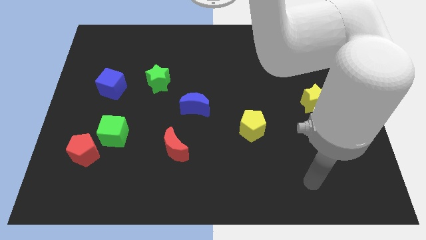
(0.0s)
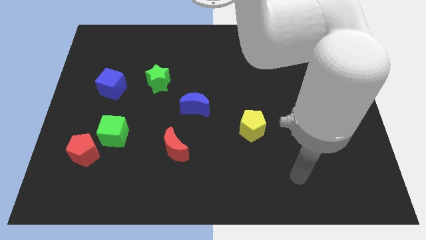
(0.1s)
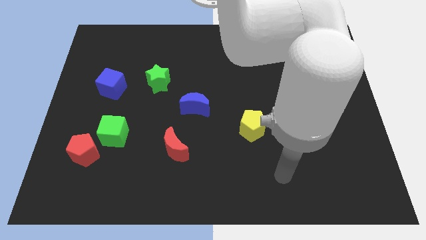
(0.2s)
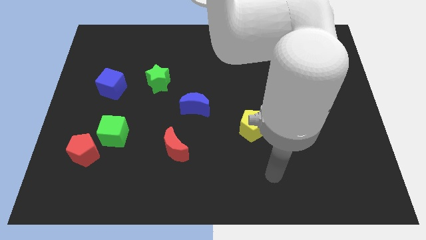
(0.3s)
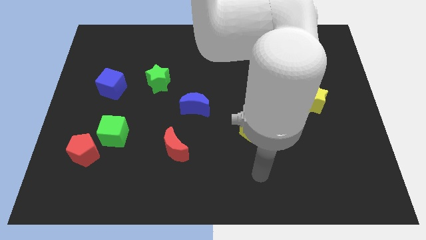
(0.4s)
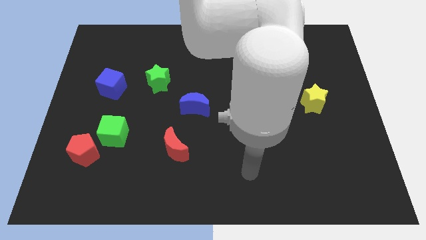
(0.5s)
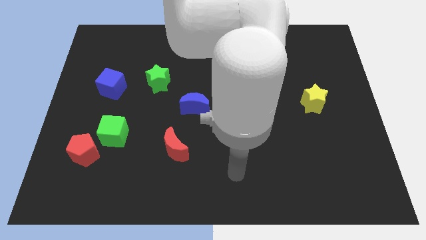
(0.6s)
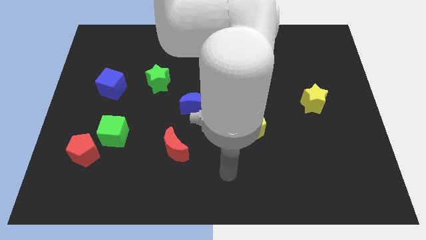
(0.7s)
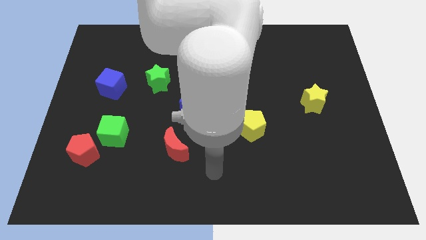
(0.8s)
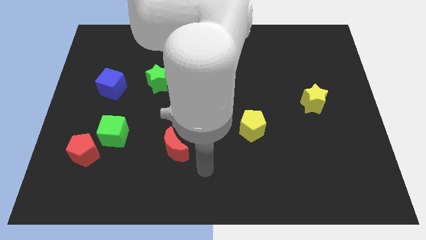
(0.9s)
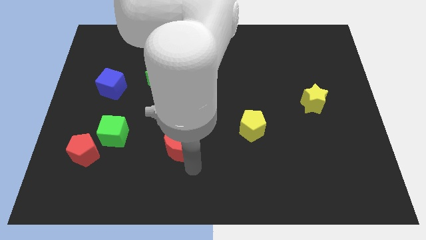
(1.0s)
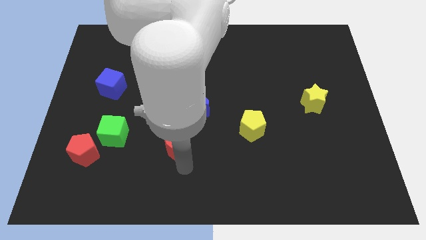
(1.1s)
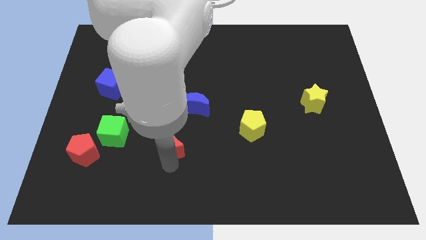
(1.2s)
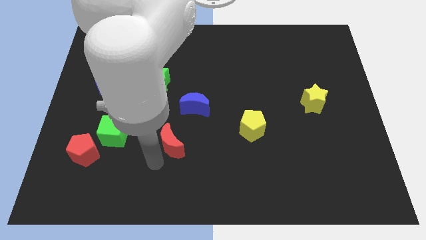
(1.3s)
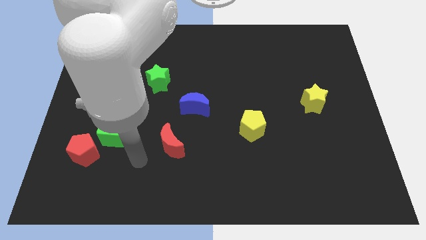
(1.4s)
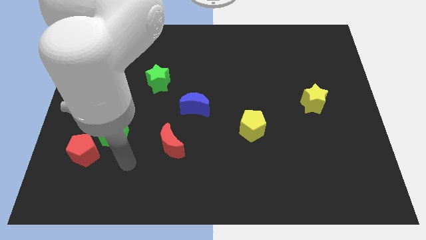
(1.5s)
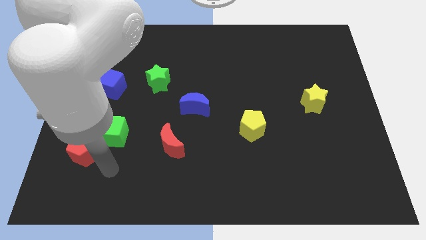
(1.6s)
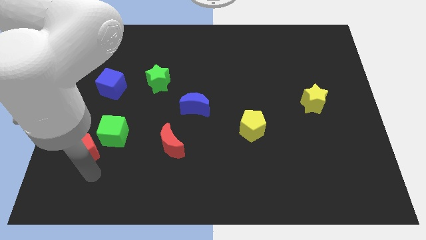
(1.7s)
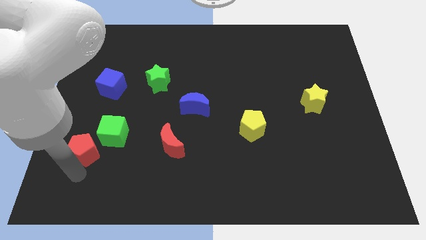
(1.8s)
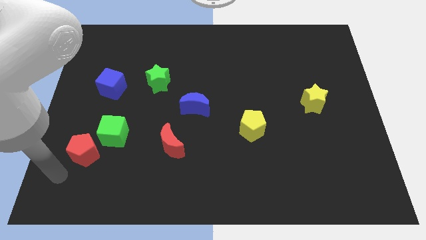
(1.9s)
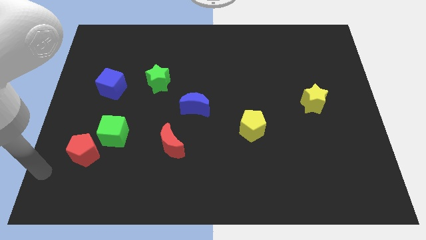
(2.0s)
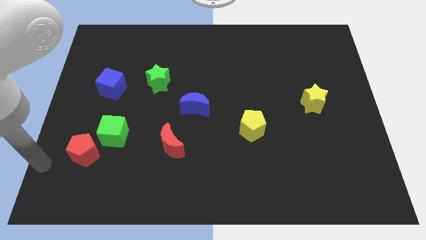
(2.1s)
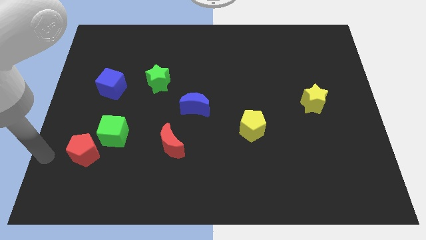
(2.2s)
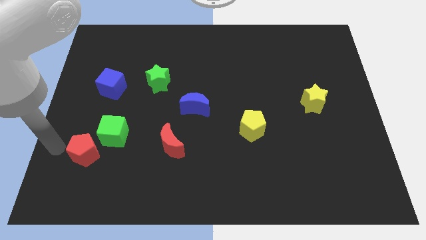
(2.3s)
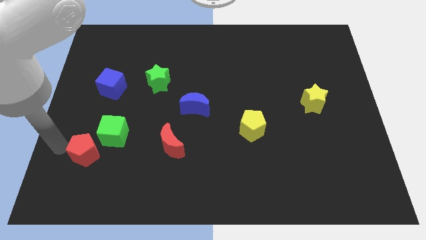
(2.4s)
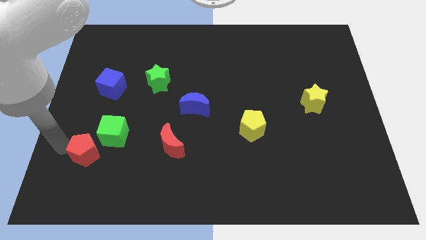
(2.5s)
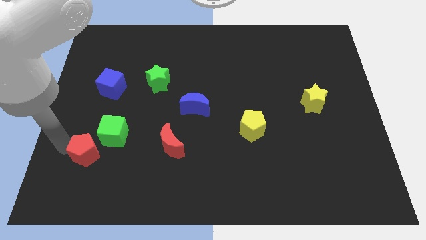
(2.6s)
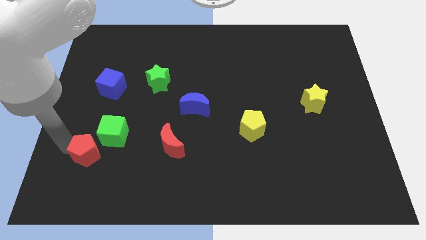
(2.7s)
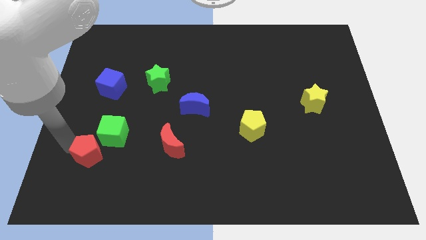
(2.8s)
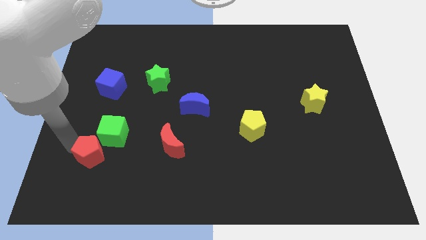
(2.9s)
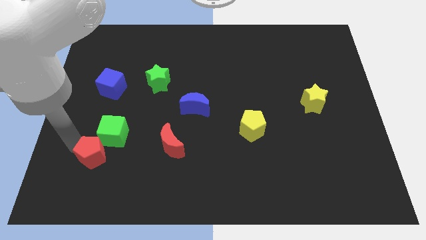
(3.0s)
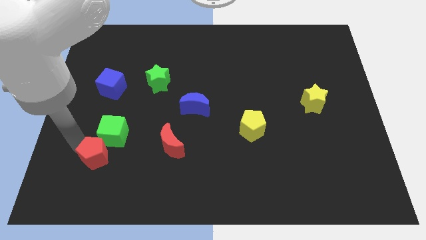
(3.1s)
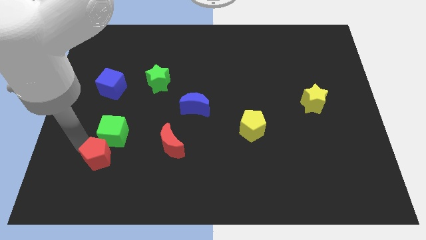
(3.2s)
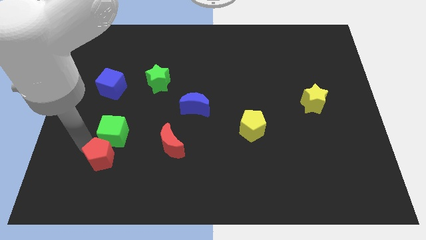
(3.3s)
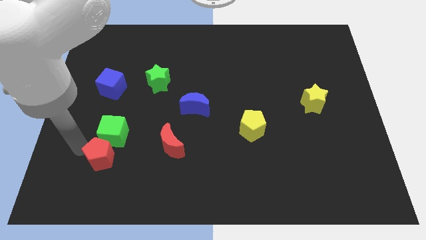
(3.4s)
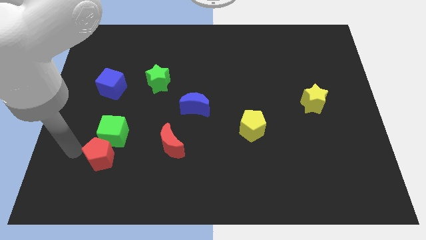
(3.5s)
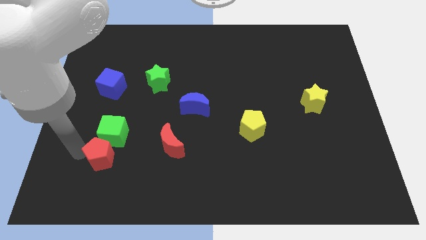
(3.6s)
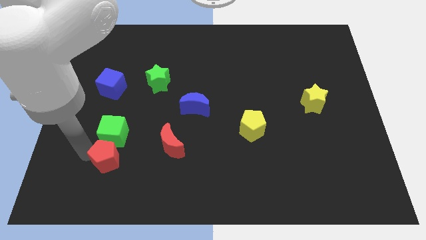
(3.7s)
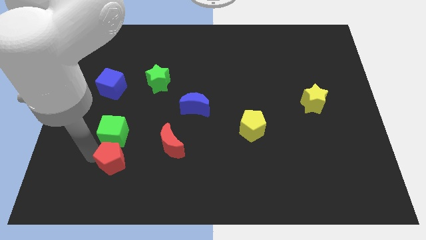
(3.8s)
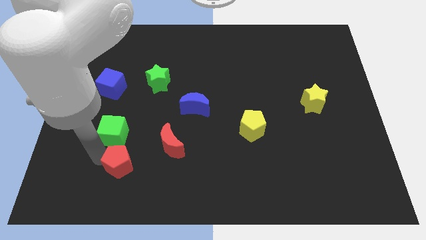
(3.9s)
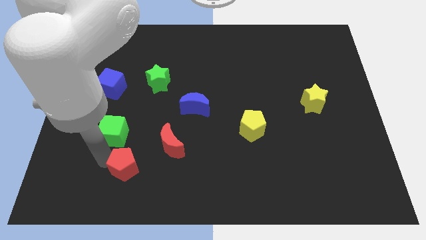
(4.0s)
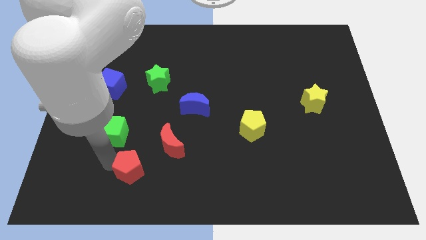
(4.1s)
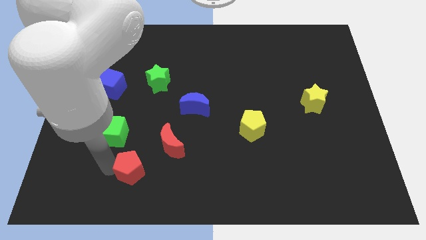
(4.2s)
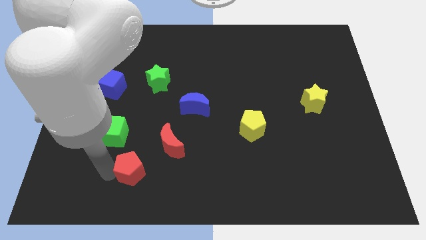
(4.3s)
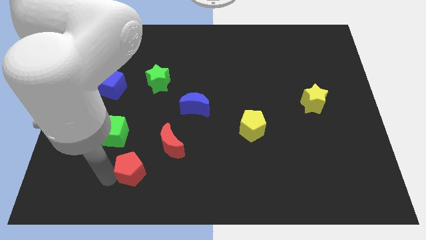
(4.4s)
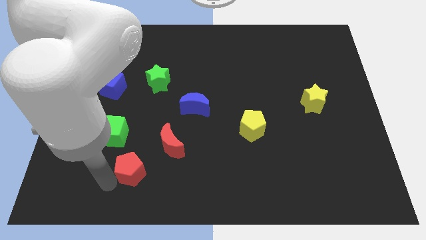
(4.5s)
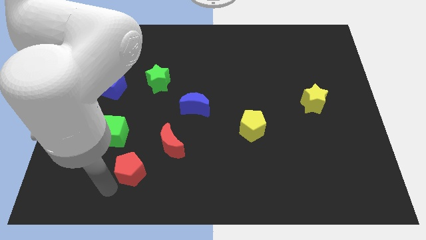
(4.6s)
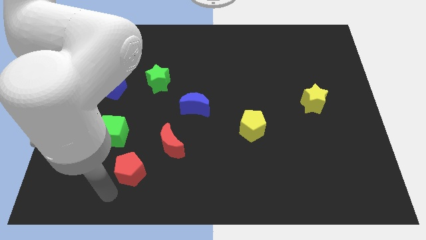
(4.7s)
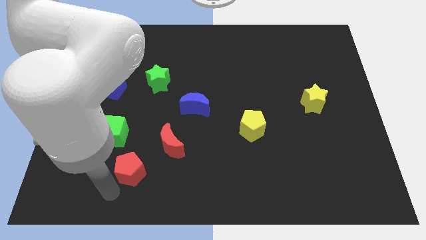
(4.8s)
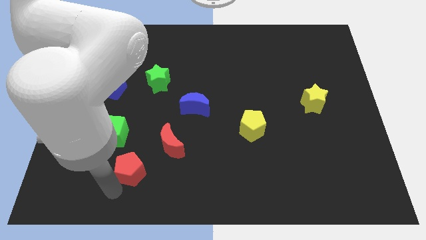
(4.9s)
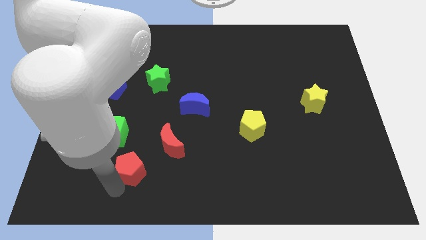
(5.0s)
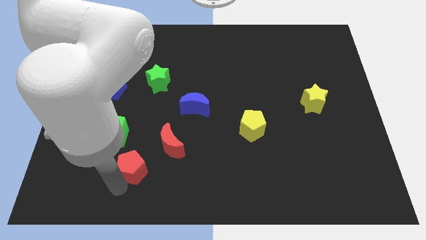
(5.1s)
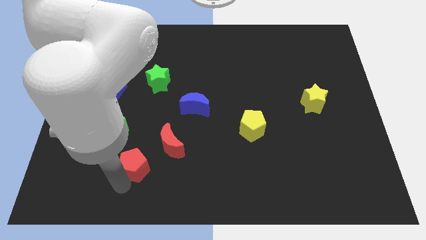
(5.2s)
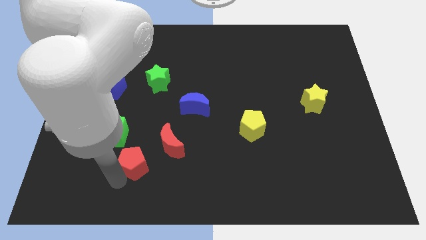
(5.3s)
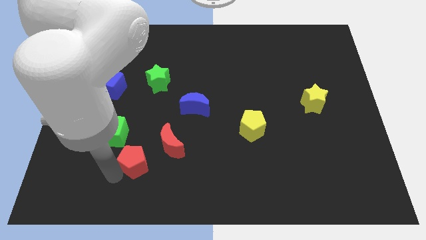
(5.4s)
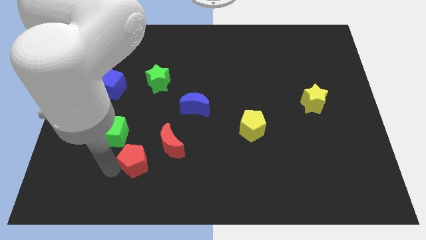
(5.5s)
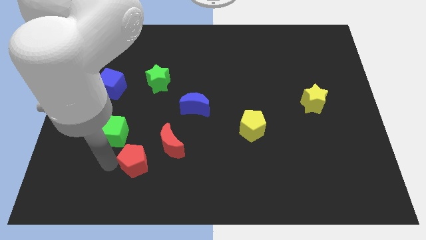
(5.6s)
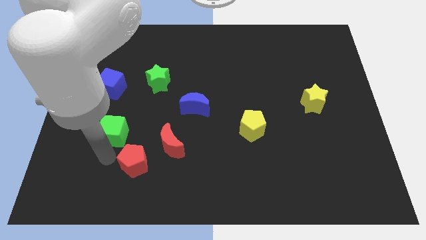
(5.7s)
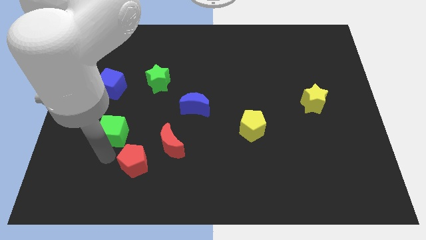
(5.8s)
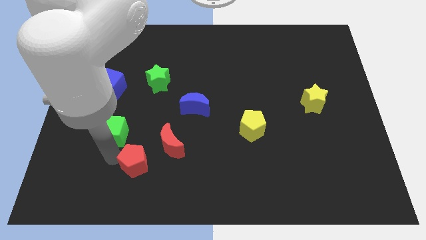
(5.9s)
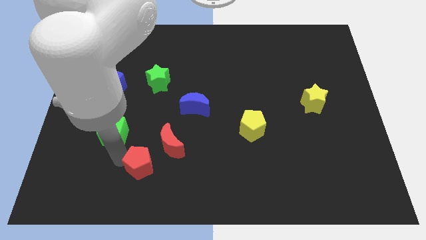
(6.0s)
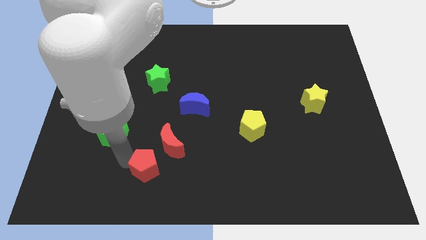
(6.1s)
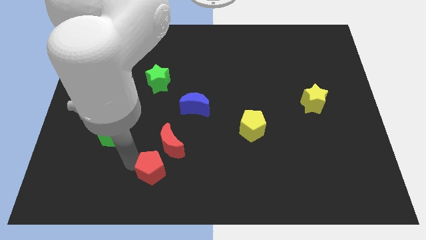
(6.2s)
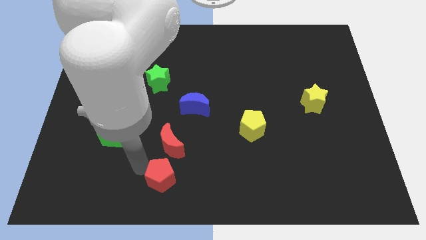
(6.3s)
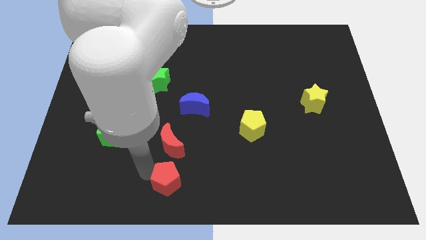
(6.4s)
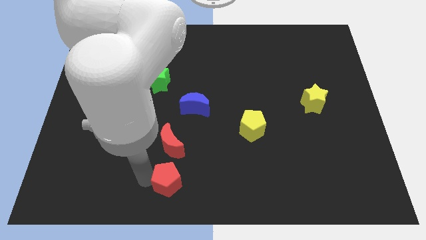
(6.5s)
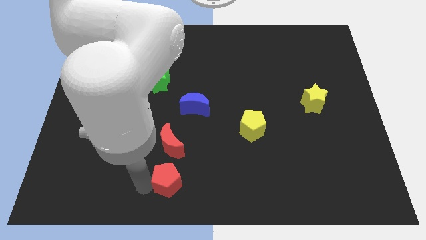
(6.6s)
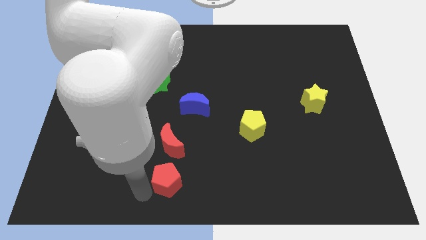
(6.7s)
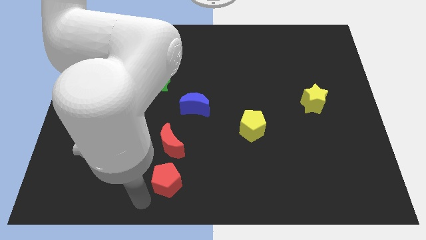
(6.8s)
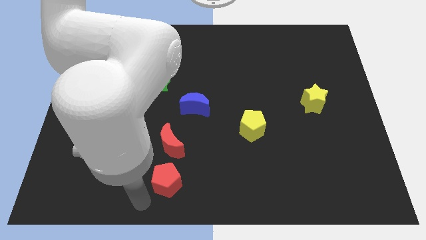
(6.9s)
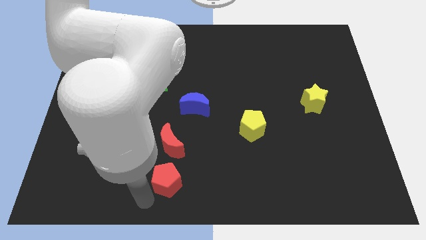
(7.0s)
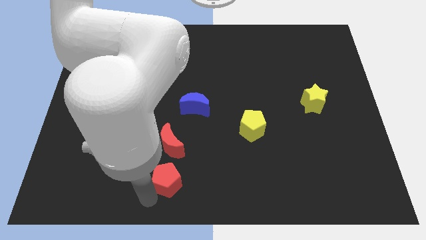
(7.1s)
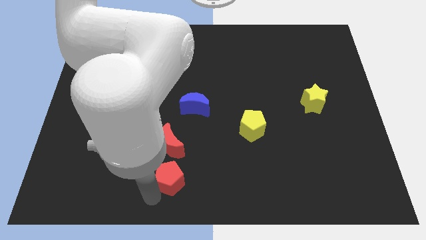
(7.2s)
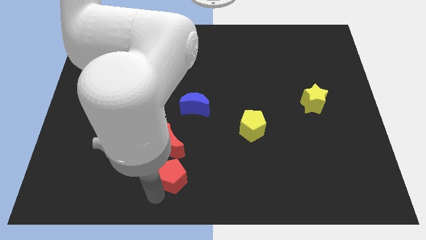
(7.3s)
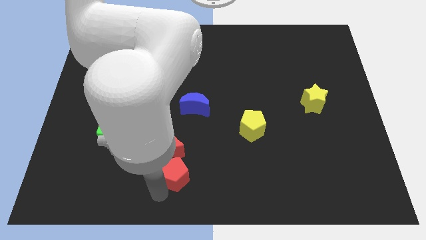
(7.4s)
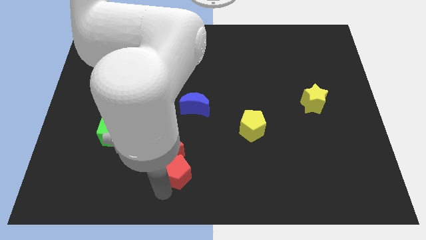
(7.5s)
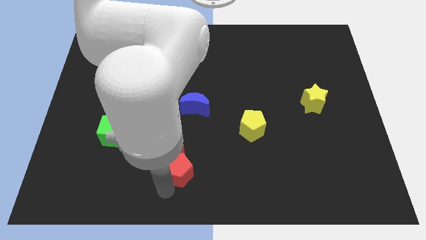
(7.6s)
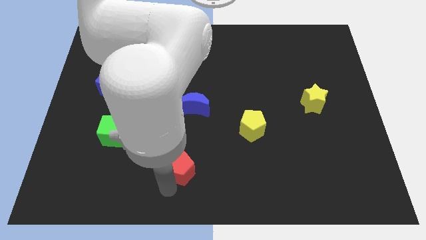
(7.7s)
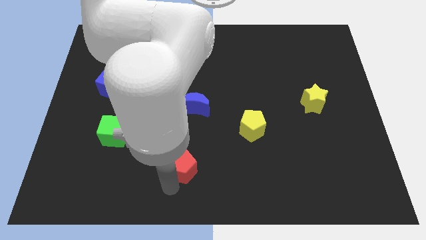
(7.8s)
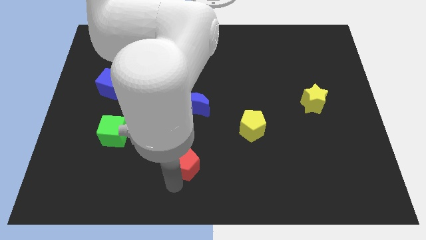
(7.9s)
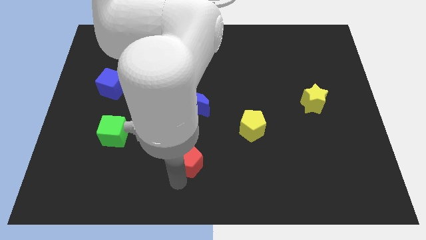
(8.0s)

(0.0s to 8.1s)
push the red pentagon right of the red moon
